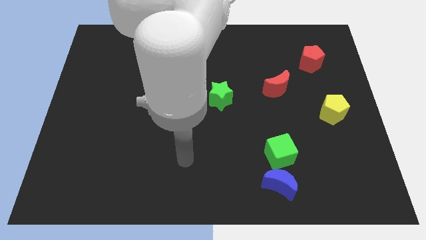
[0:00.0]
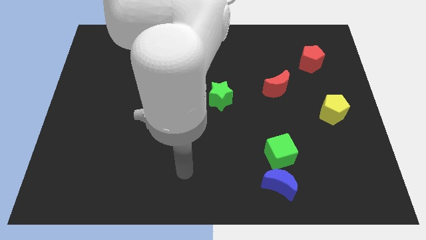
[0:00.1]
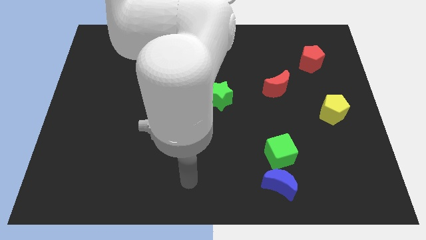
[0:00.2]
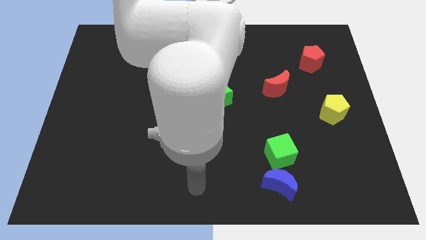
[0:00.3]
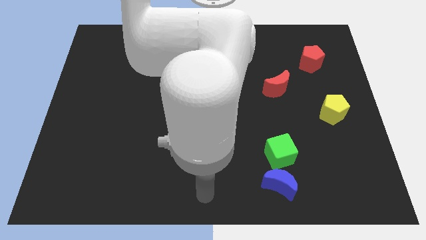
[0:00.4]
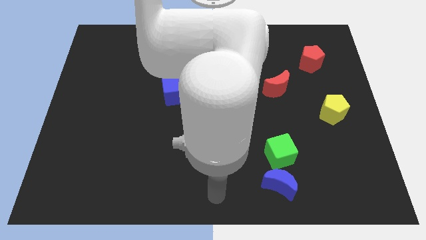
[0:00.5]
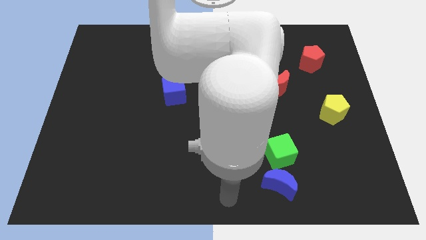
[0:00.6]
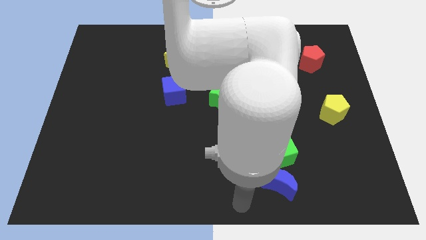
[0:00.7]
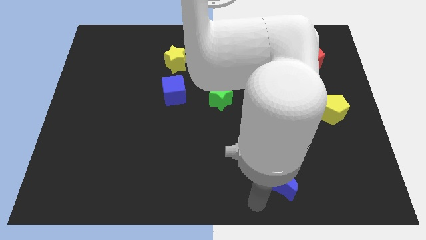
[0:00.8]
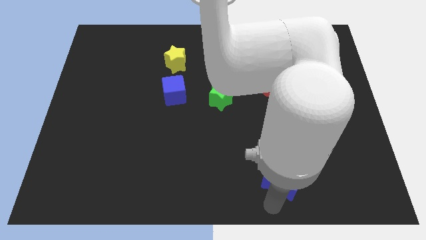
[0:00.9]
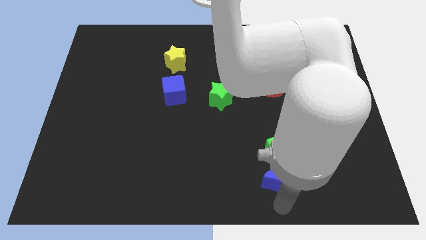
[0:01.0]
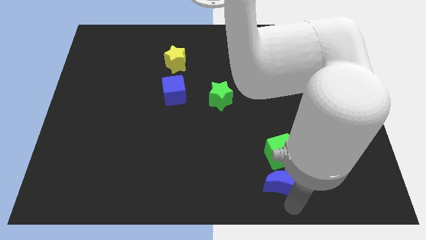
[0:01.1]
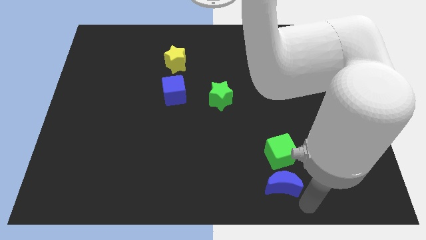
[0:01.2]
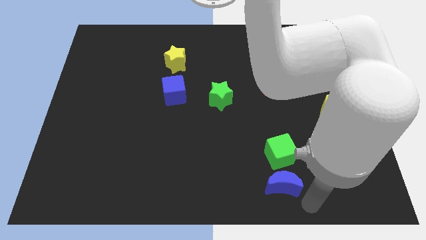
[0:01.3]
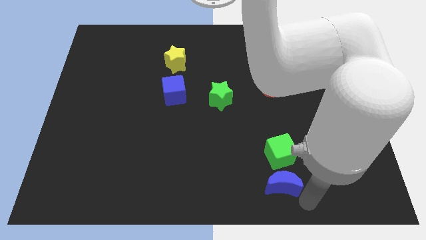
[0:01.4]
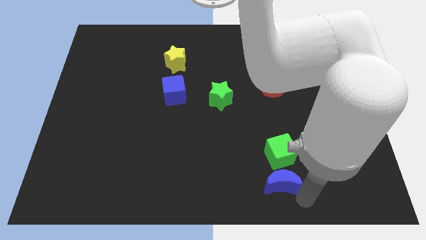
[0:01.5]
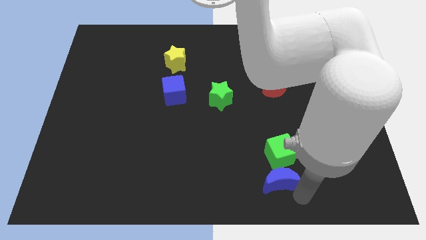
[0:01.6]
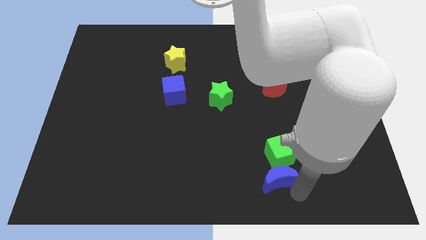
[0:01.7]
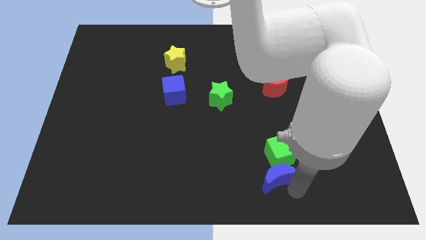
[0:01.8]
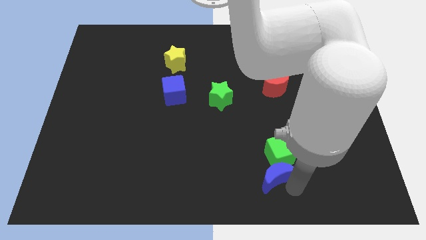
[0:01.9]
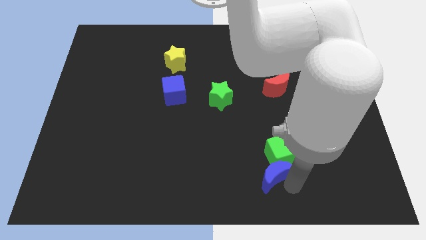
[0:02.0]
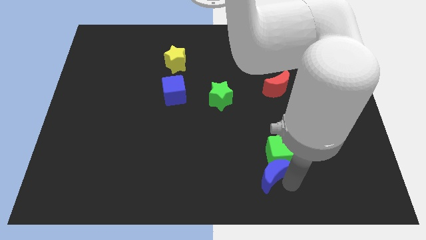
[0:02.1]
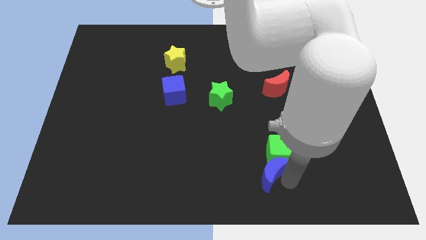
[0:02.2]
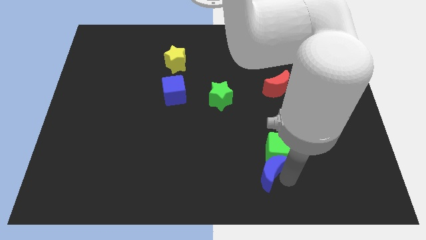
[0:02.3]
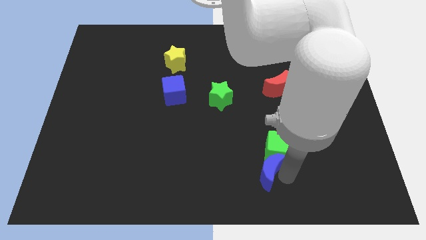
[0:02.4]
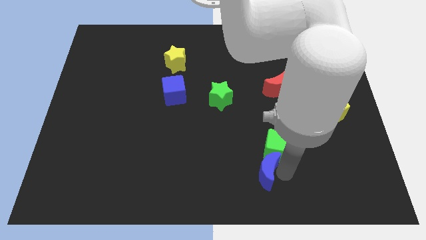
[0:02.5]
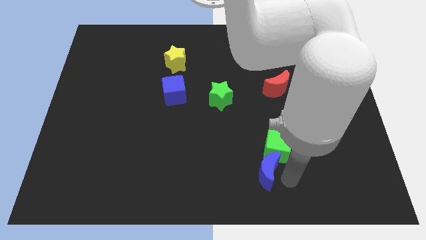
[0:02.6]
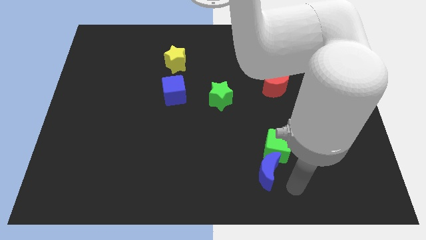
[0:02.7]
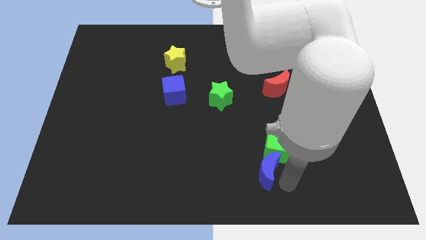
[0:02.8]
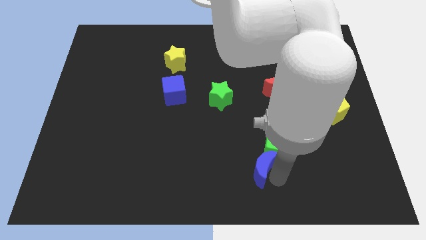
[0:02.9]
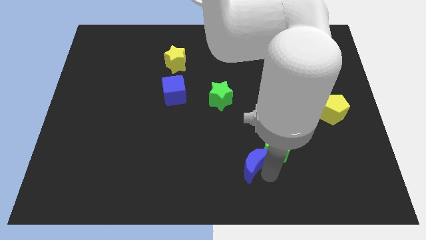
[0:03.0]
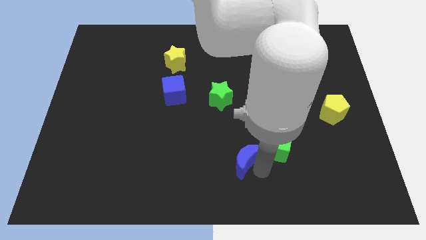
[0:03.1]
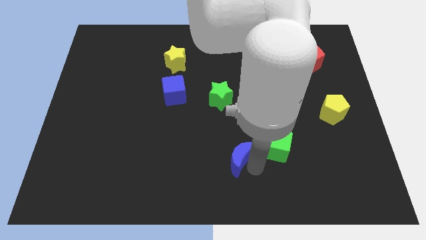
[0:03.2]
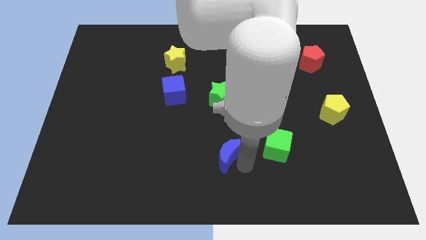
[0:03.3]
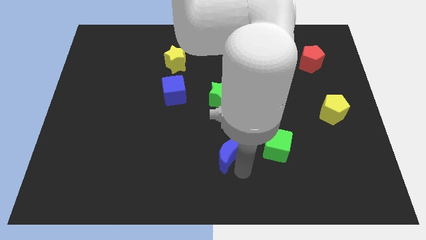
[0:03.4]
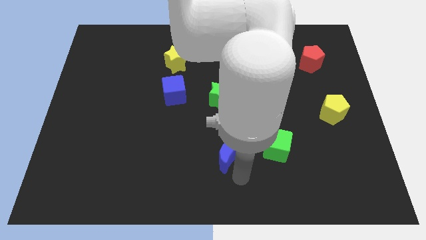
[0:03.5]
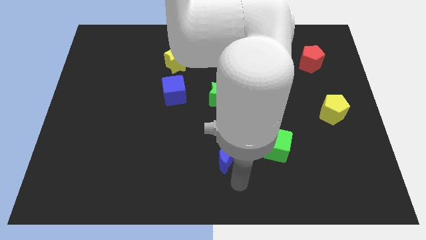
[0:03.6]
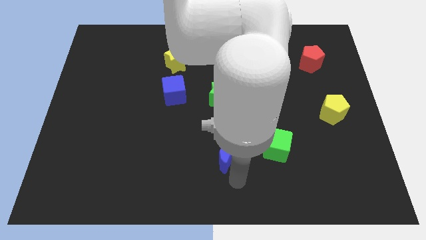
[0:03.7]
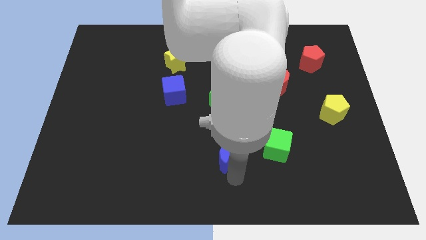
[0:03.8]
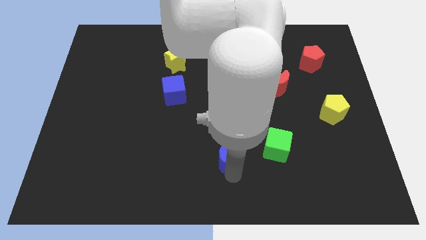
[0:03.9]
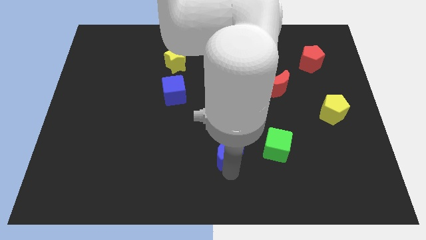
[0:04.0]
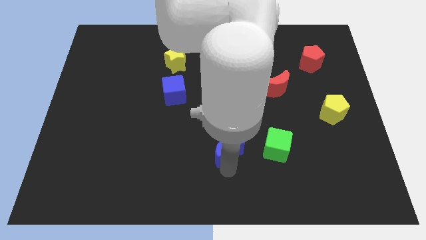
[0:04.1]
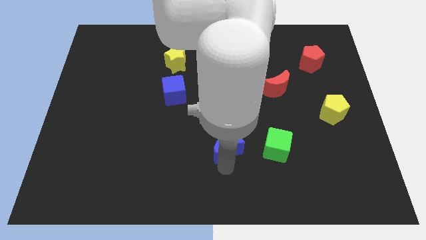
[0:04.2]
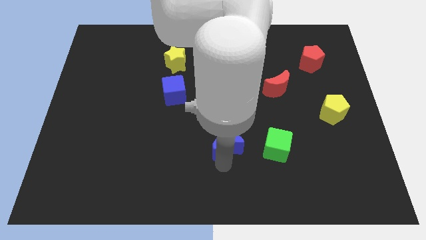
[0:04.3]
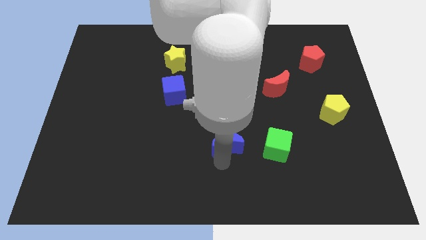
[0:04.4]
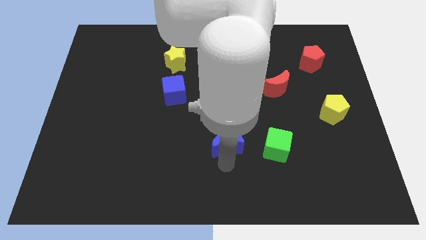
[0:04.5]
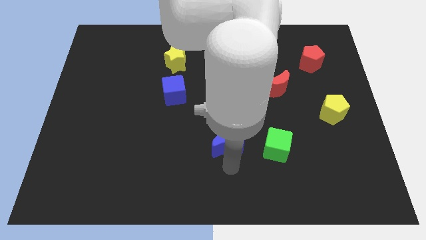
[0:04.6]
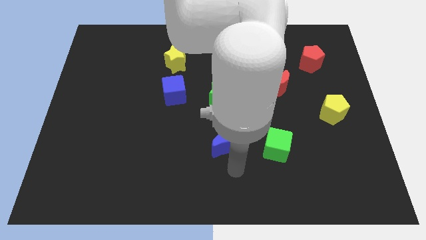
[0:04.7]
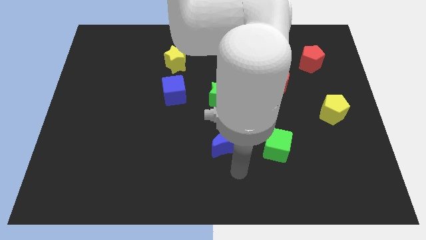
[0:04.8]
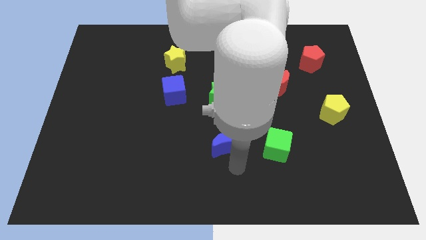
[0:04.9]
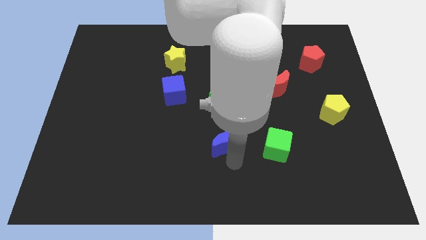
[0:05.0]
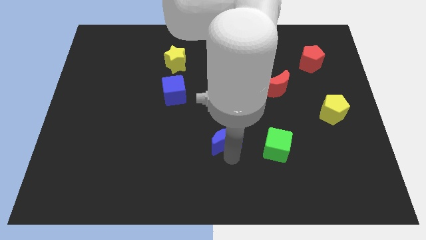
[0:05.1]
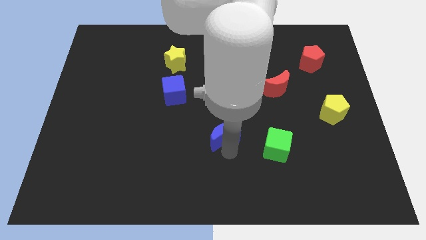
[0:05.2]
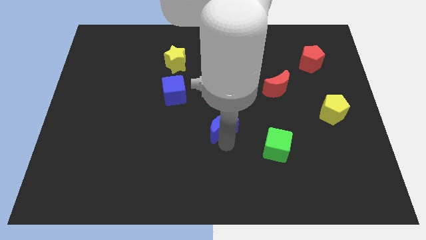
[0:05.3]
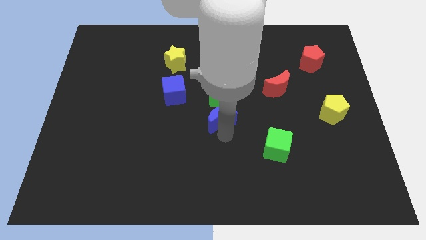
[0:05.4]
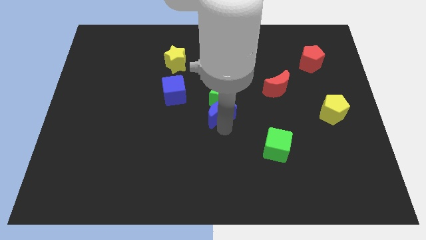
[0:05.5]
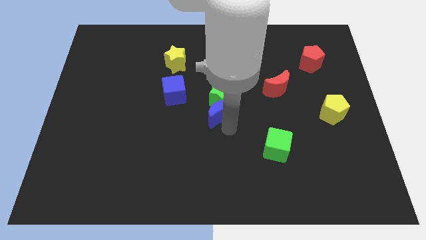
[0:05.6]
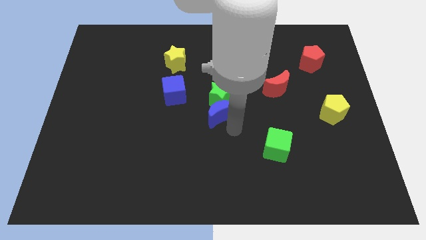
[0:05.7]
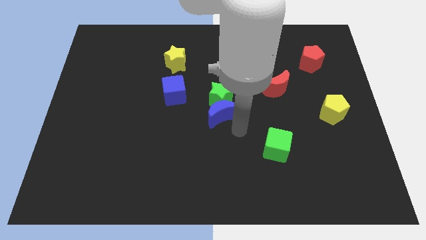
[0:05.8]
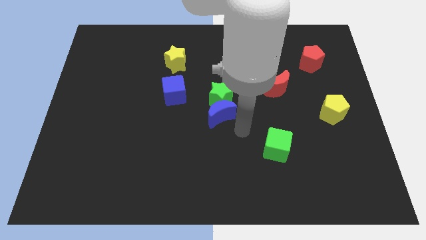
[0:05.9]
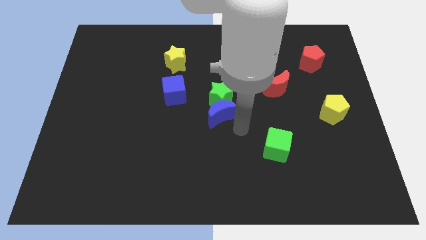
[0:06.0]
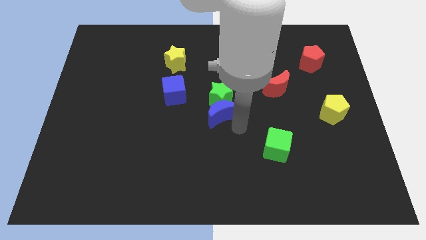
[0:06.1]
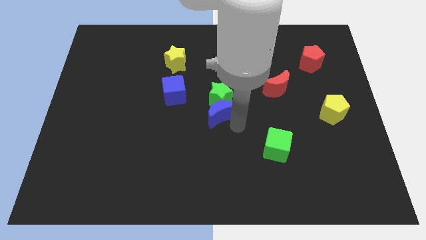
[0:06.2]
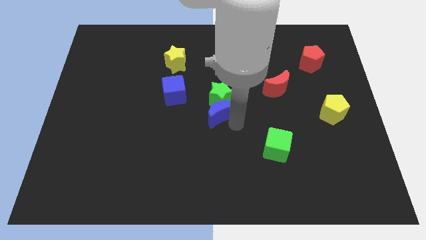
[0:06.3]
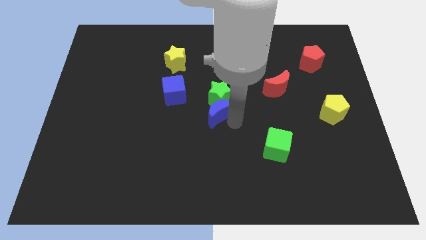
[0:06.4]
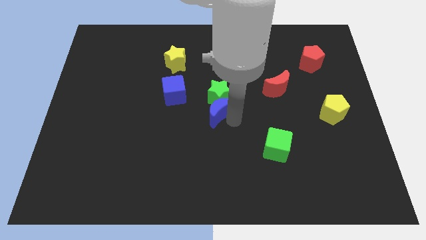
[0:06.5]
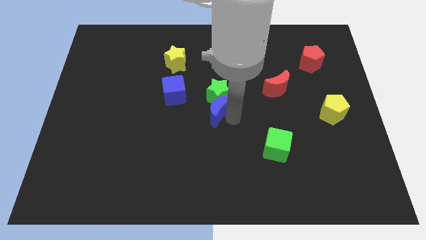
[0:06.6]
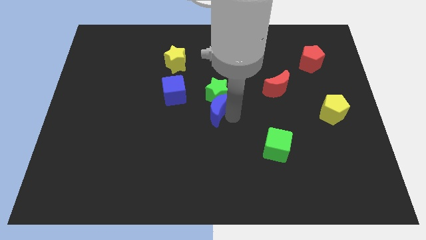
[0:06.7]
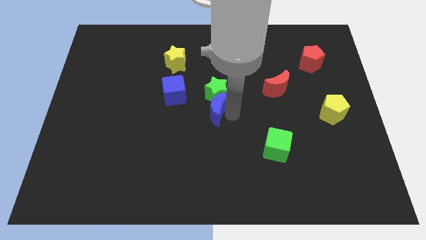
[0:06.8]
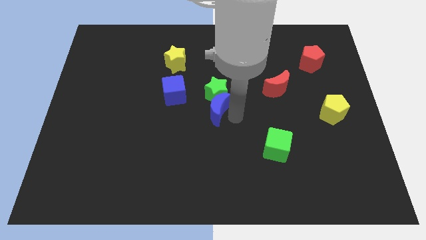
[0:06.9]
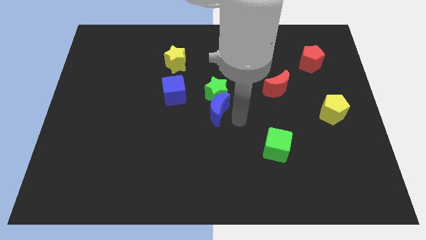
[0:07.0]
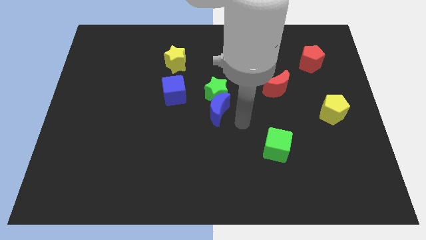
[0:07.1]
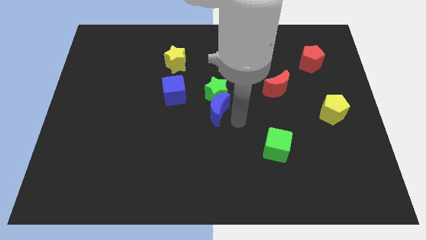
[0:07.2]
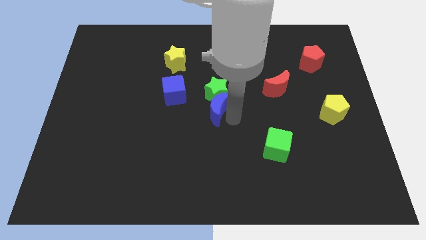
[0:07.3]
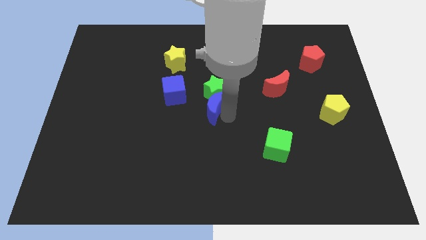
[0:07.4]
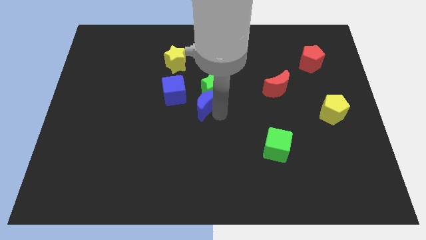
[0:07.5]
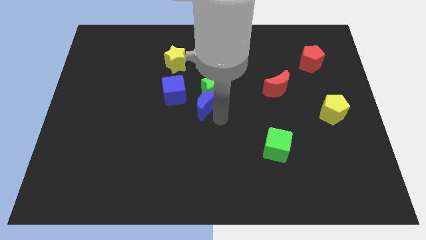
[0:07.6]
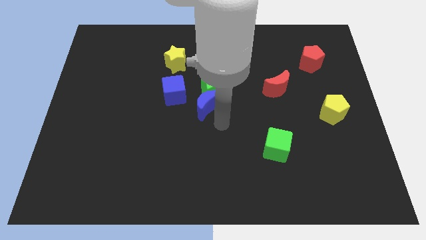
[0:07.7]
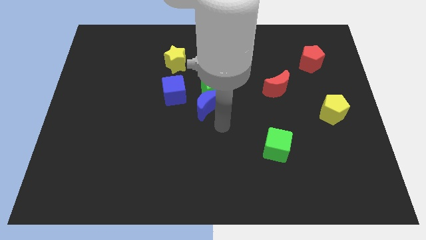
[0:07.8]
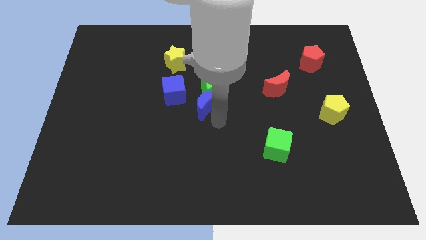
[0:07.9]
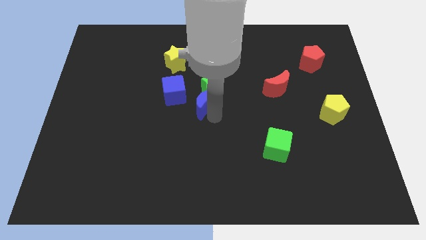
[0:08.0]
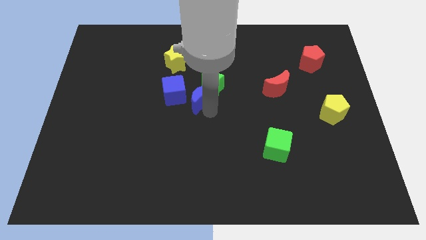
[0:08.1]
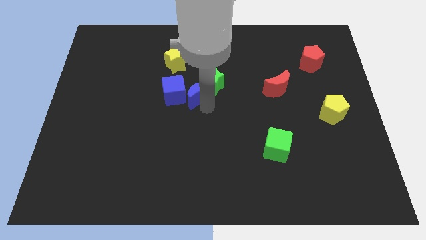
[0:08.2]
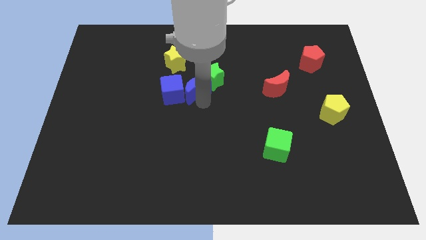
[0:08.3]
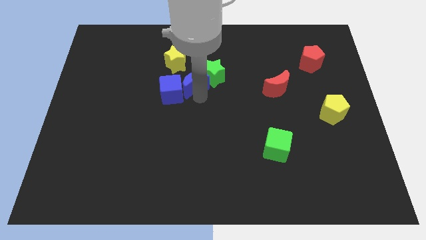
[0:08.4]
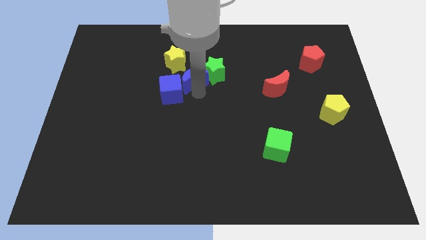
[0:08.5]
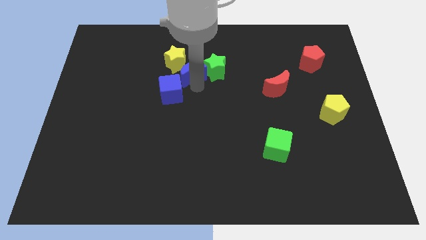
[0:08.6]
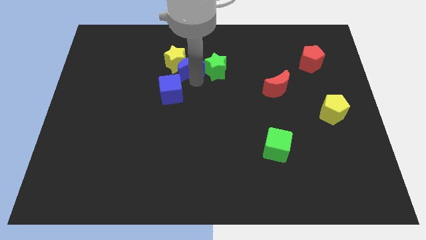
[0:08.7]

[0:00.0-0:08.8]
push the blue moon to the yellow star
